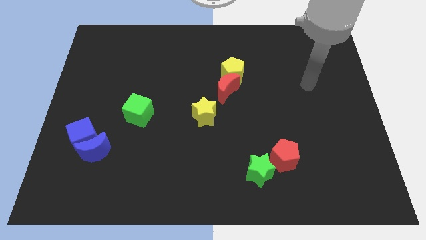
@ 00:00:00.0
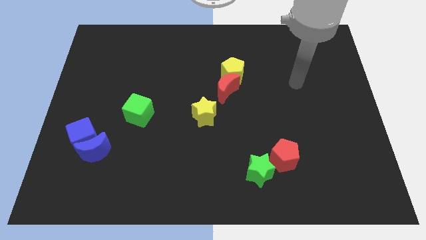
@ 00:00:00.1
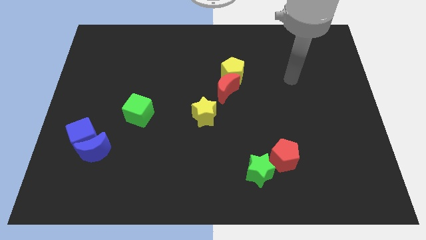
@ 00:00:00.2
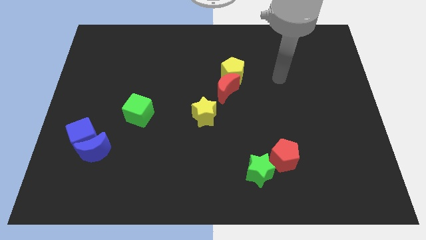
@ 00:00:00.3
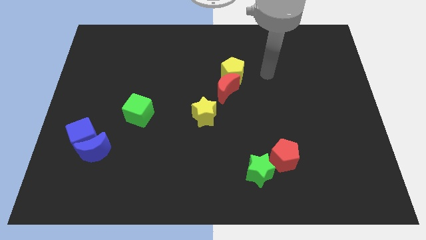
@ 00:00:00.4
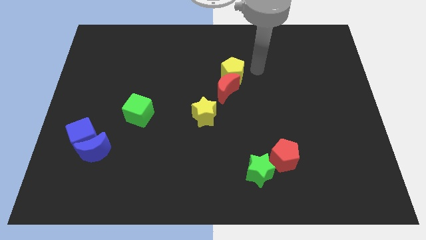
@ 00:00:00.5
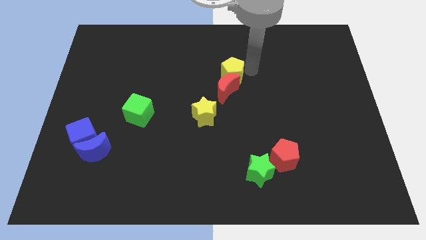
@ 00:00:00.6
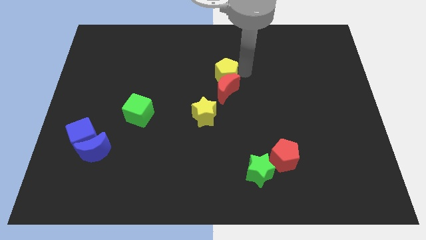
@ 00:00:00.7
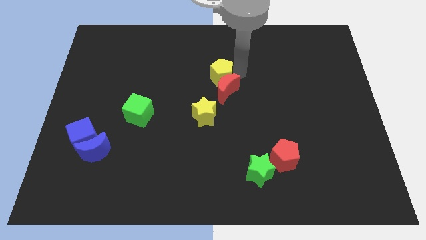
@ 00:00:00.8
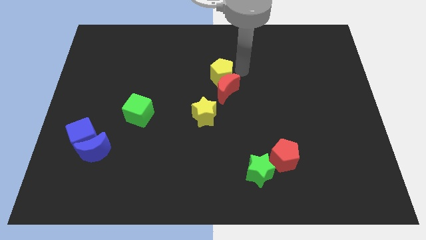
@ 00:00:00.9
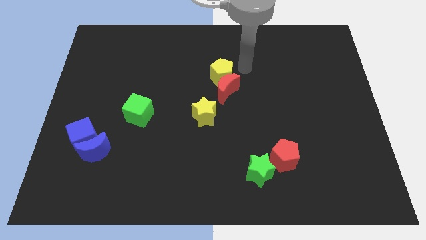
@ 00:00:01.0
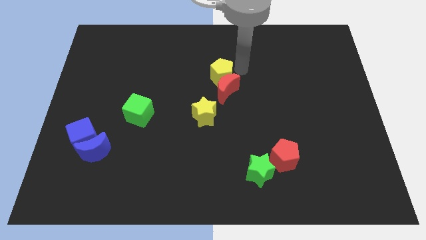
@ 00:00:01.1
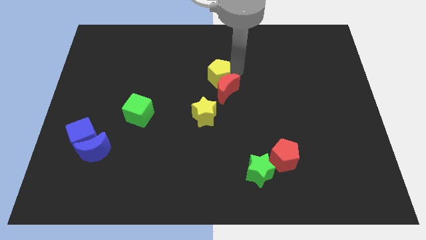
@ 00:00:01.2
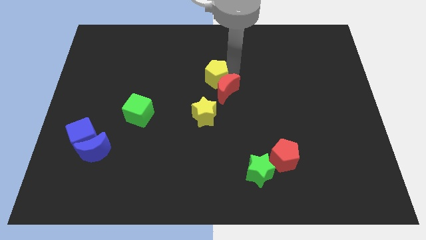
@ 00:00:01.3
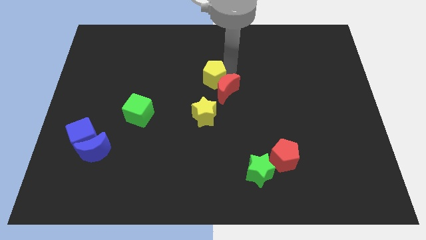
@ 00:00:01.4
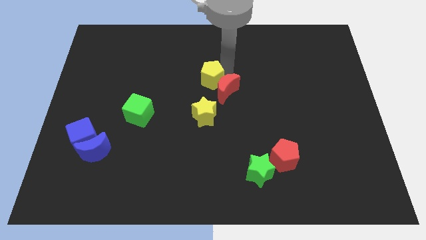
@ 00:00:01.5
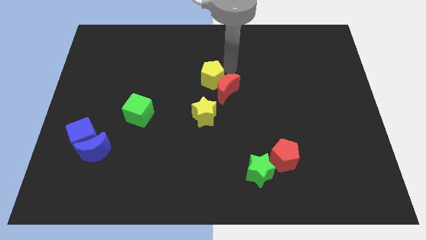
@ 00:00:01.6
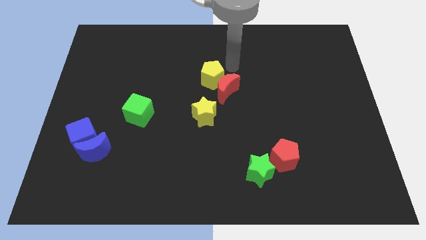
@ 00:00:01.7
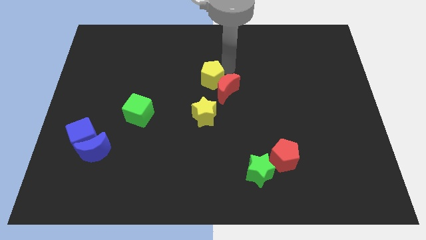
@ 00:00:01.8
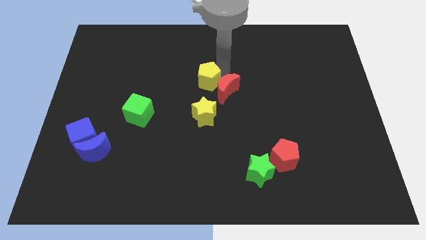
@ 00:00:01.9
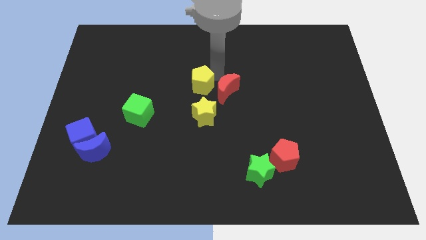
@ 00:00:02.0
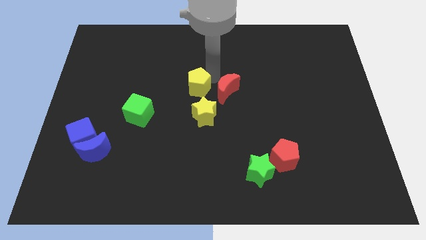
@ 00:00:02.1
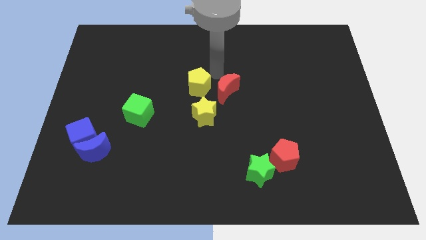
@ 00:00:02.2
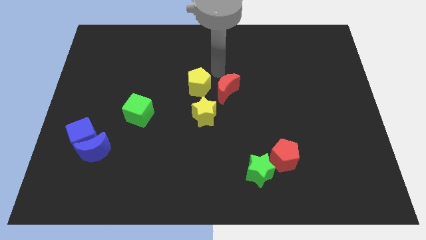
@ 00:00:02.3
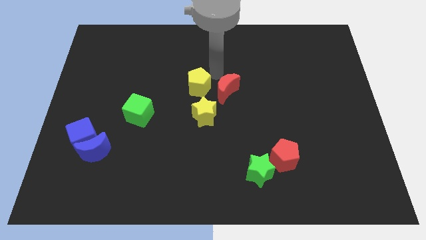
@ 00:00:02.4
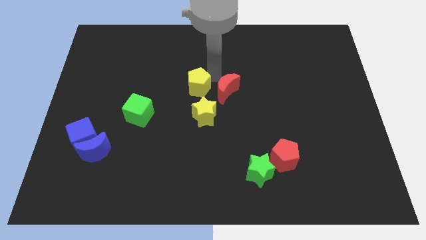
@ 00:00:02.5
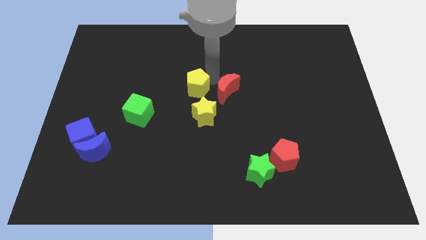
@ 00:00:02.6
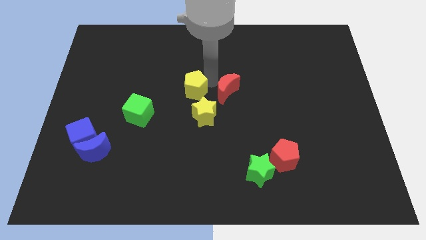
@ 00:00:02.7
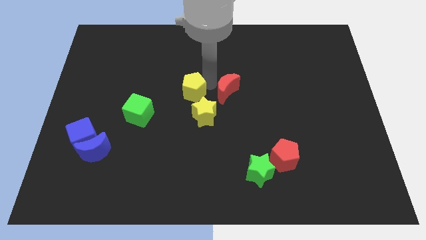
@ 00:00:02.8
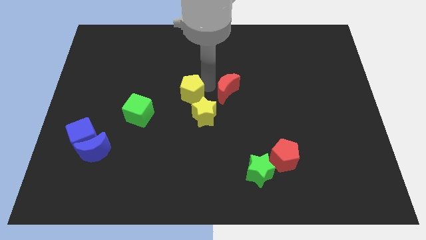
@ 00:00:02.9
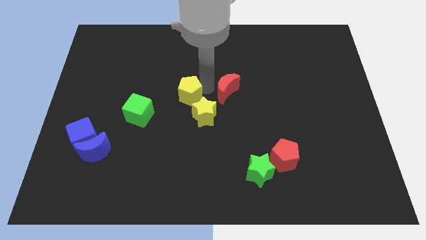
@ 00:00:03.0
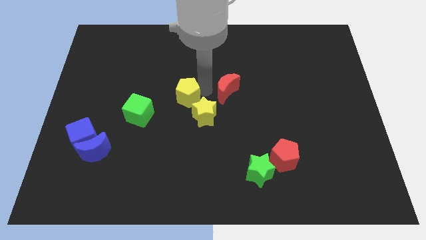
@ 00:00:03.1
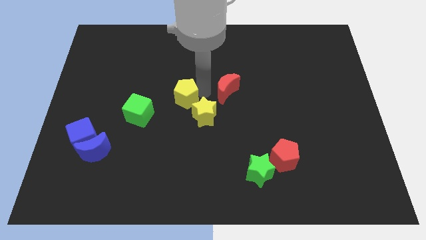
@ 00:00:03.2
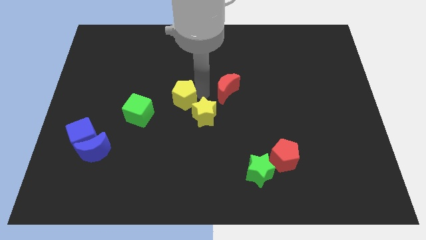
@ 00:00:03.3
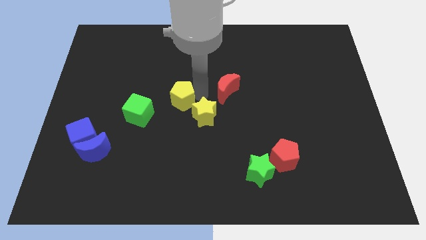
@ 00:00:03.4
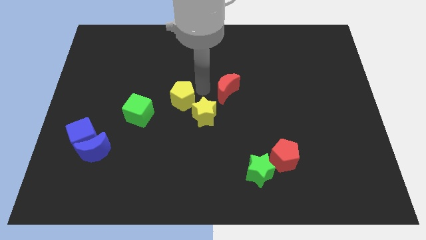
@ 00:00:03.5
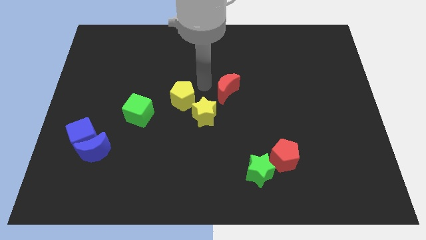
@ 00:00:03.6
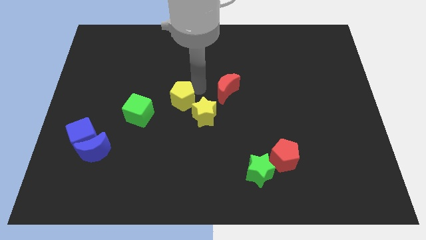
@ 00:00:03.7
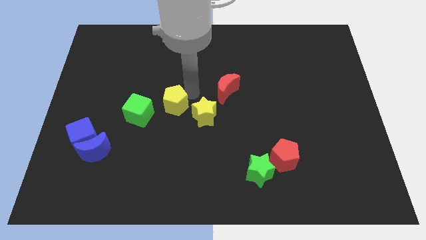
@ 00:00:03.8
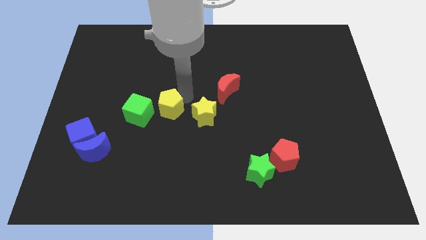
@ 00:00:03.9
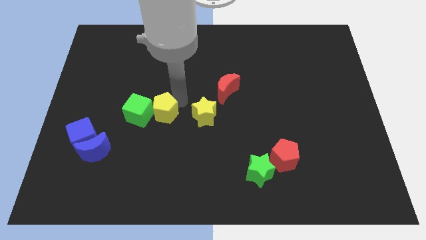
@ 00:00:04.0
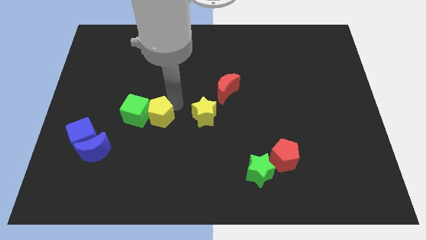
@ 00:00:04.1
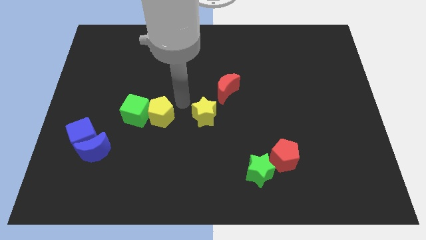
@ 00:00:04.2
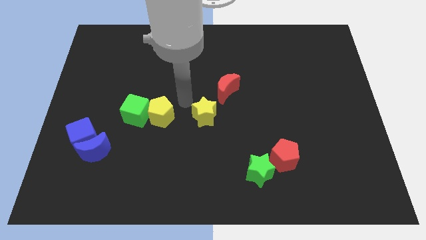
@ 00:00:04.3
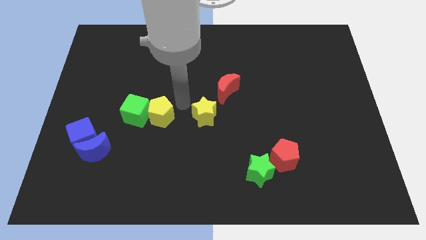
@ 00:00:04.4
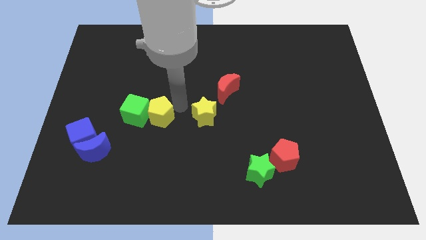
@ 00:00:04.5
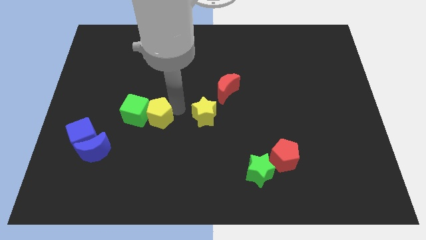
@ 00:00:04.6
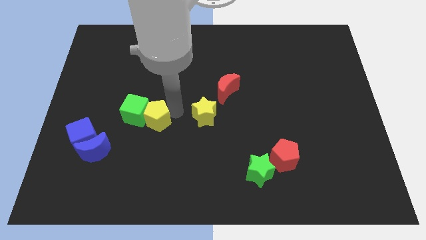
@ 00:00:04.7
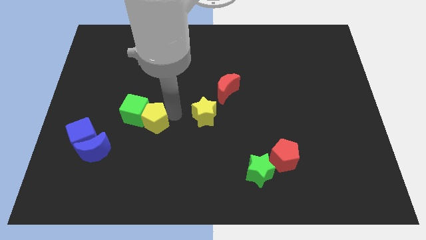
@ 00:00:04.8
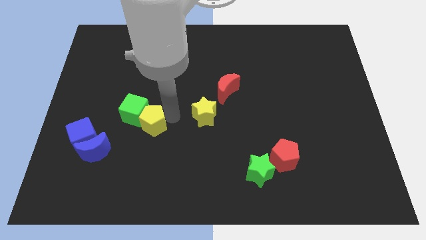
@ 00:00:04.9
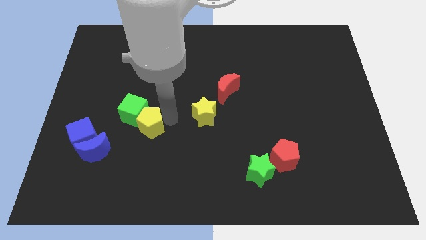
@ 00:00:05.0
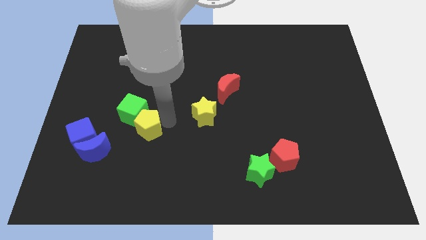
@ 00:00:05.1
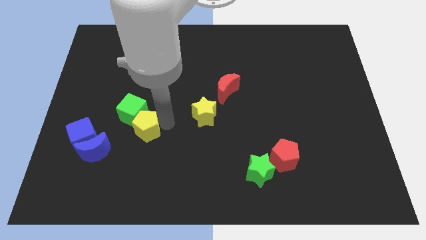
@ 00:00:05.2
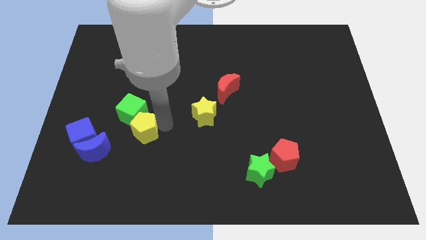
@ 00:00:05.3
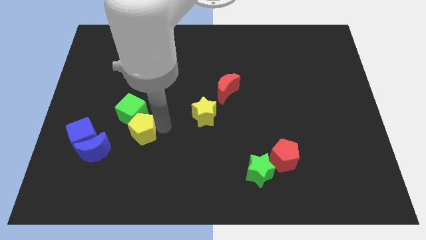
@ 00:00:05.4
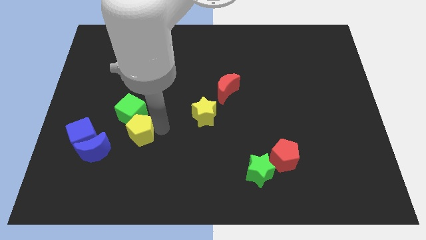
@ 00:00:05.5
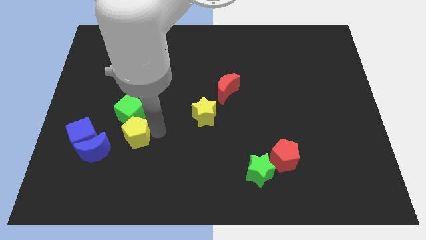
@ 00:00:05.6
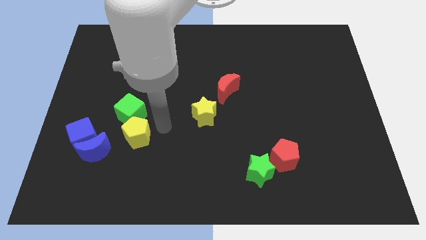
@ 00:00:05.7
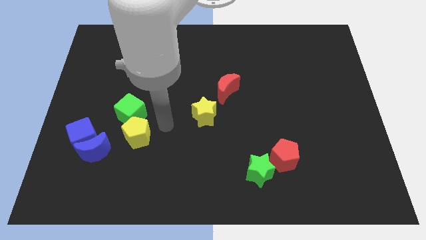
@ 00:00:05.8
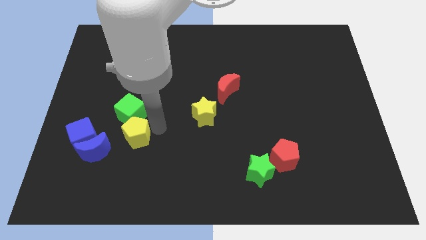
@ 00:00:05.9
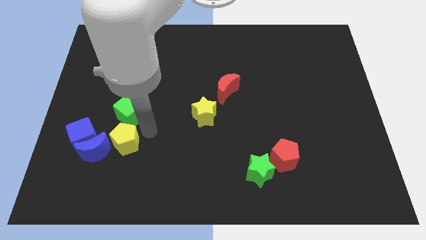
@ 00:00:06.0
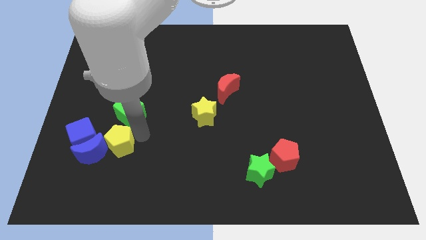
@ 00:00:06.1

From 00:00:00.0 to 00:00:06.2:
slide the yellow pentagon close to the blue moon

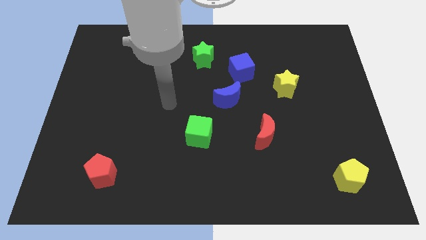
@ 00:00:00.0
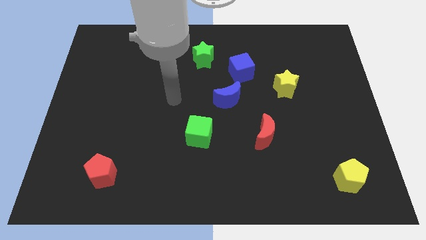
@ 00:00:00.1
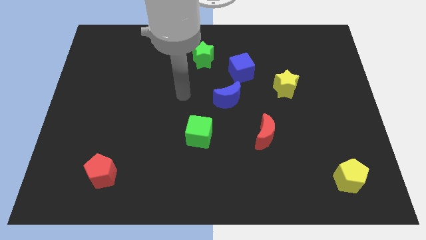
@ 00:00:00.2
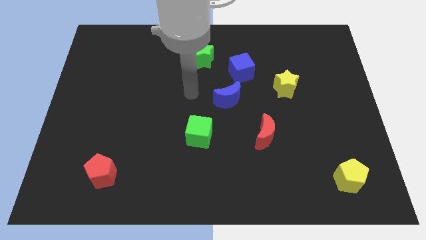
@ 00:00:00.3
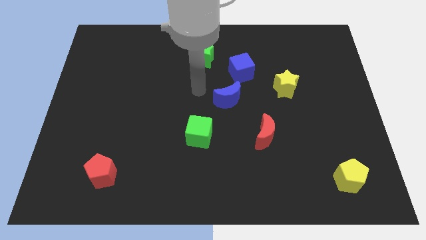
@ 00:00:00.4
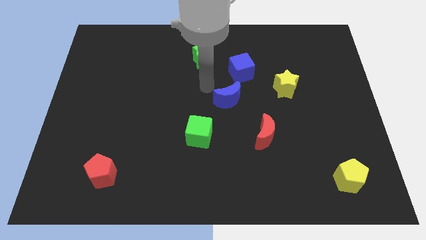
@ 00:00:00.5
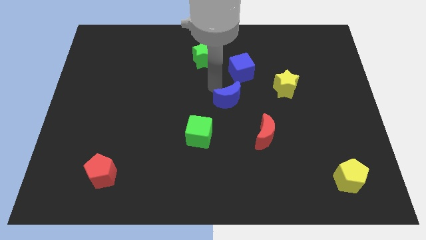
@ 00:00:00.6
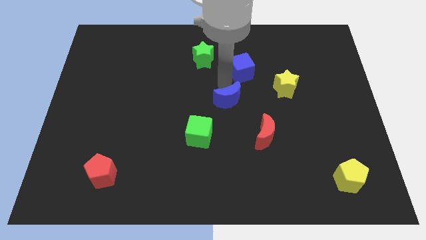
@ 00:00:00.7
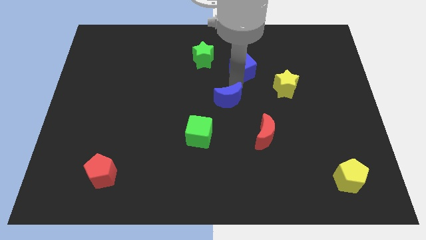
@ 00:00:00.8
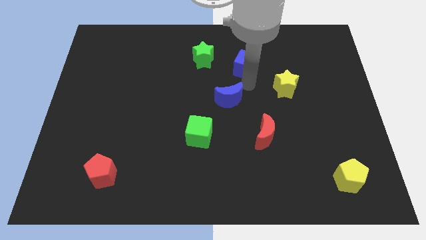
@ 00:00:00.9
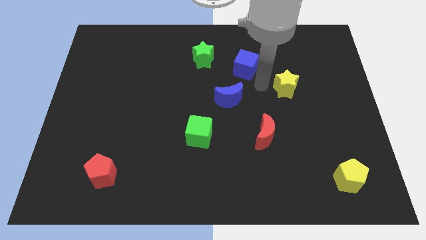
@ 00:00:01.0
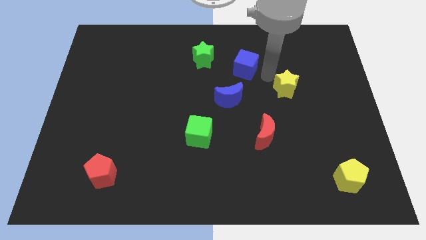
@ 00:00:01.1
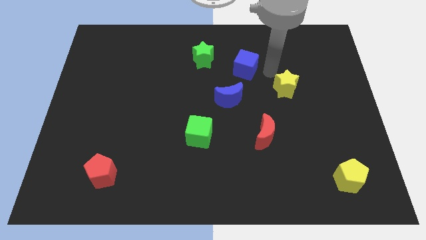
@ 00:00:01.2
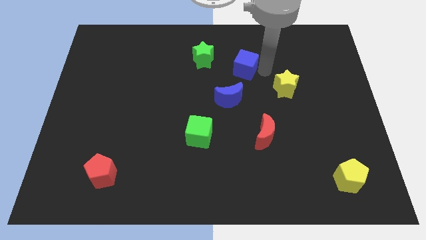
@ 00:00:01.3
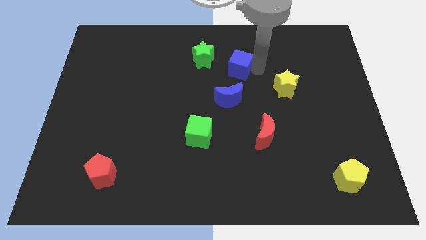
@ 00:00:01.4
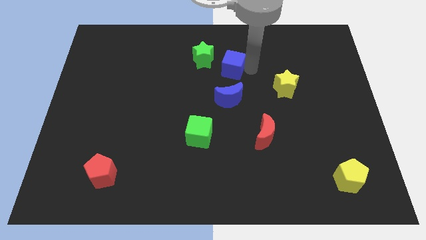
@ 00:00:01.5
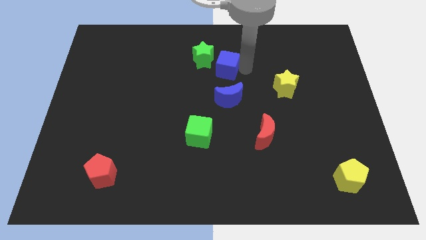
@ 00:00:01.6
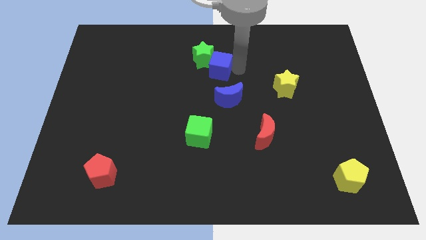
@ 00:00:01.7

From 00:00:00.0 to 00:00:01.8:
push the blue cube close to the green star
